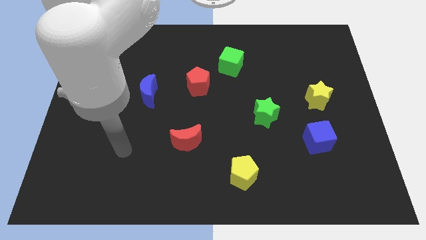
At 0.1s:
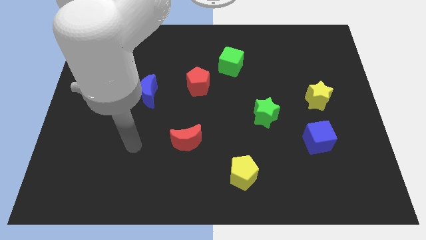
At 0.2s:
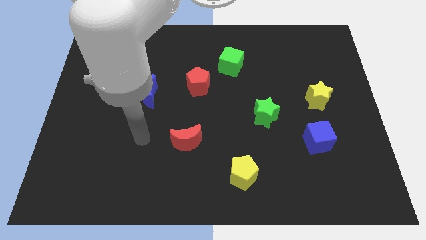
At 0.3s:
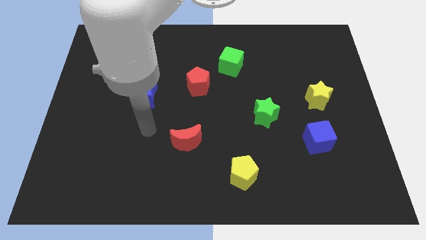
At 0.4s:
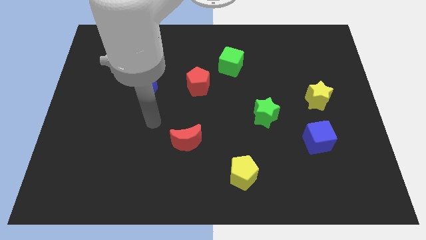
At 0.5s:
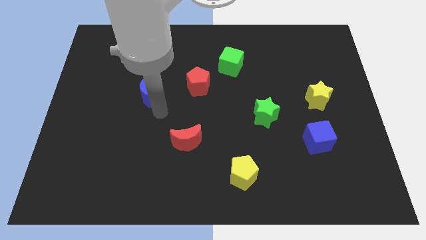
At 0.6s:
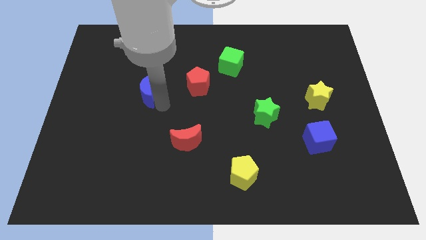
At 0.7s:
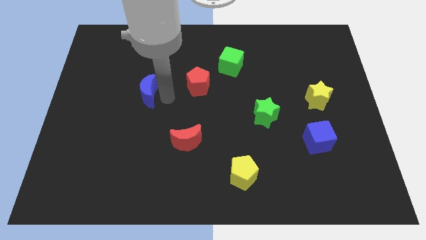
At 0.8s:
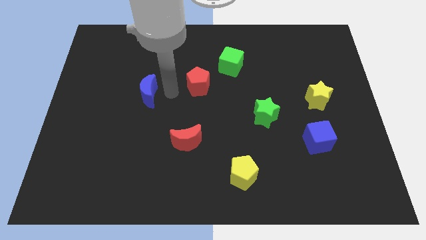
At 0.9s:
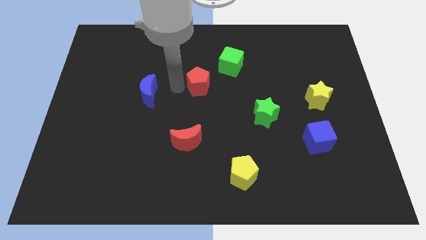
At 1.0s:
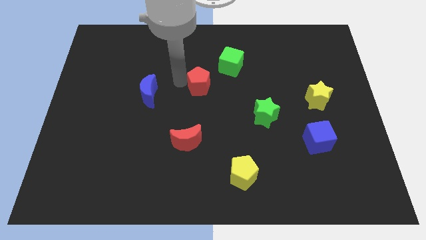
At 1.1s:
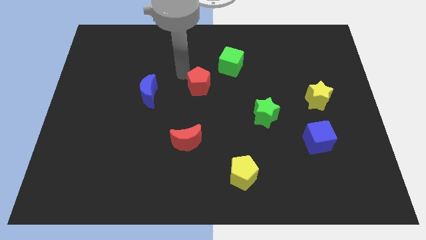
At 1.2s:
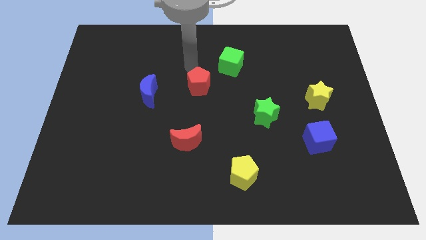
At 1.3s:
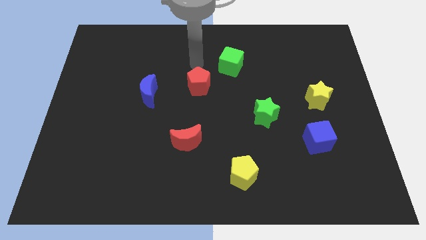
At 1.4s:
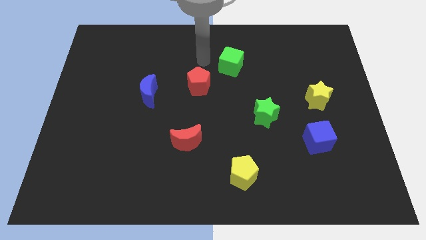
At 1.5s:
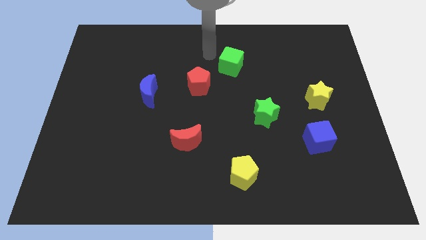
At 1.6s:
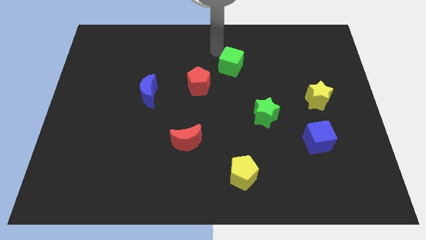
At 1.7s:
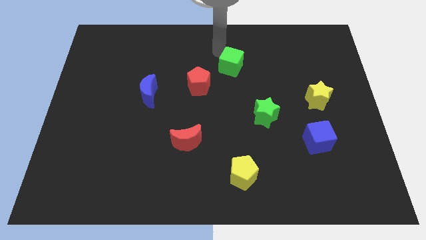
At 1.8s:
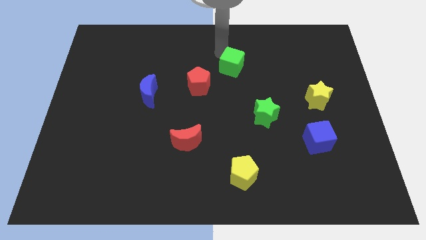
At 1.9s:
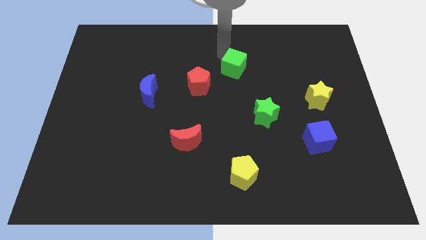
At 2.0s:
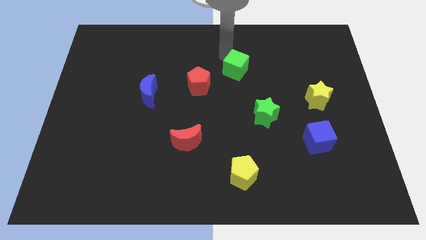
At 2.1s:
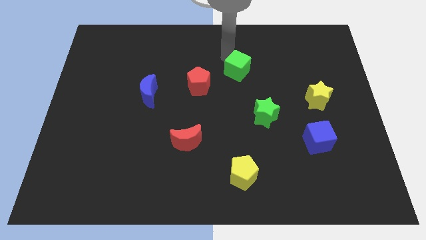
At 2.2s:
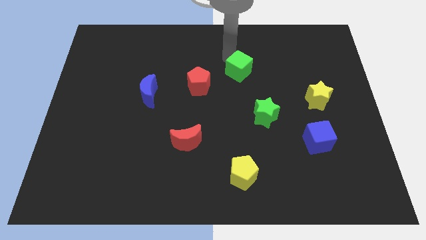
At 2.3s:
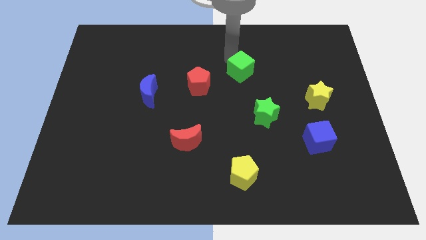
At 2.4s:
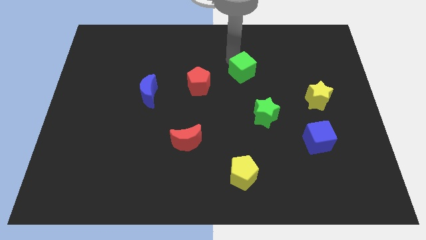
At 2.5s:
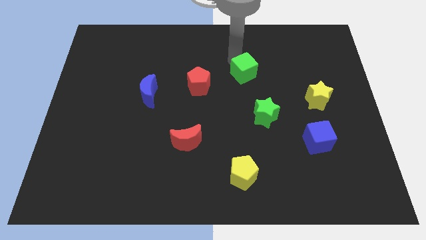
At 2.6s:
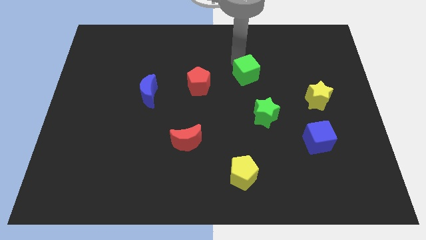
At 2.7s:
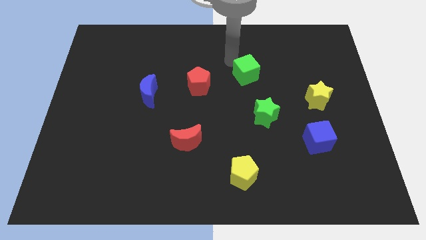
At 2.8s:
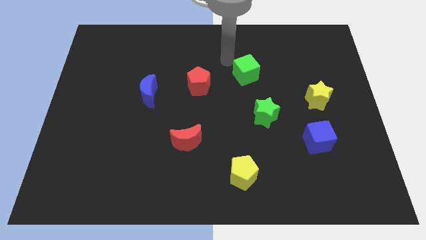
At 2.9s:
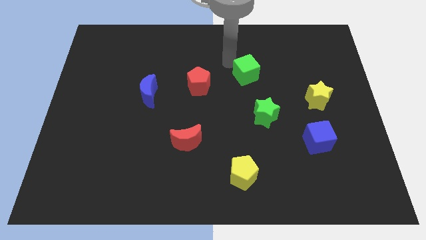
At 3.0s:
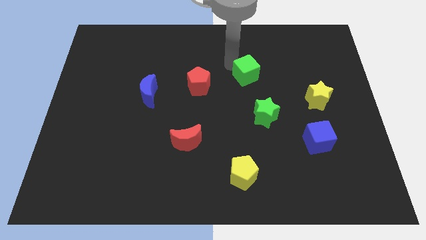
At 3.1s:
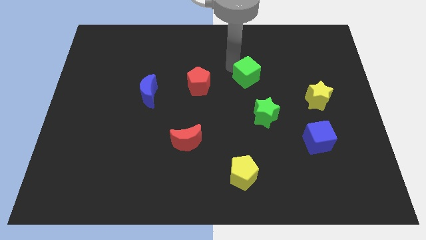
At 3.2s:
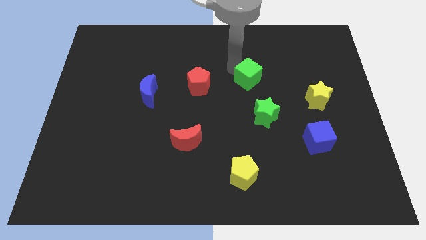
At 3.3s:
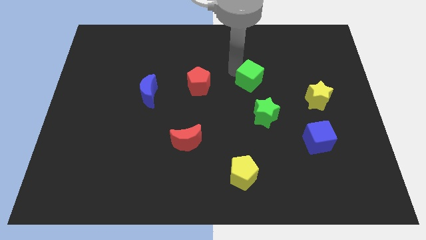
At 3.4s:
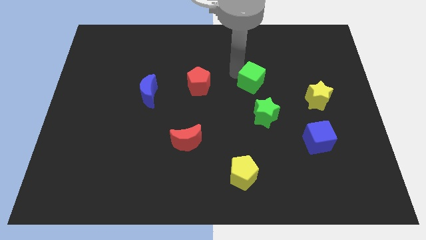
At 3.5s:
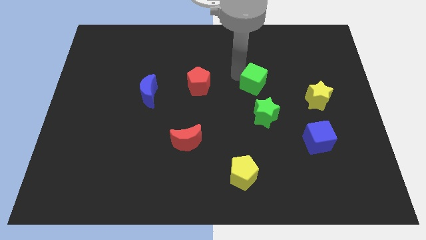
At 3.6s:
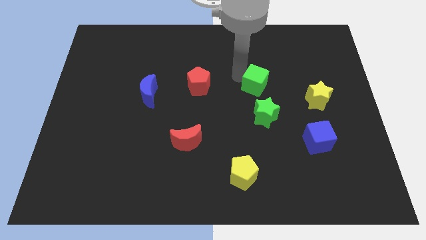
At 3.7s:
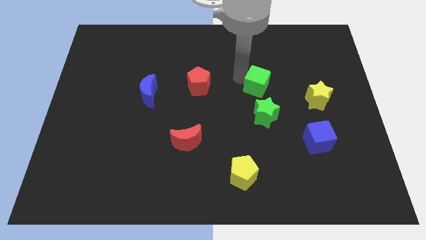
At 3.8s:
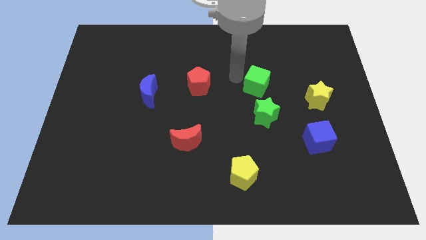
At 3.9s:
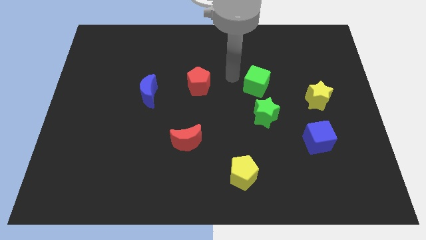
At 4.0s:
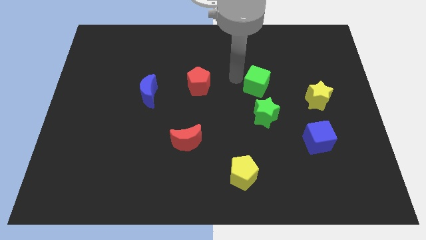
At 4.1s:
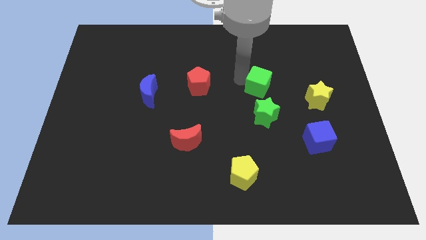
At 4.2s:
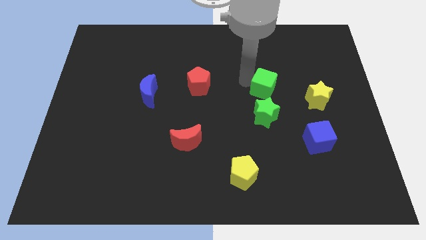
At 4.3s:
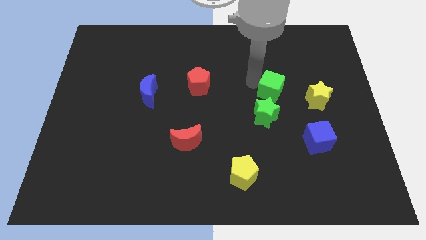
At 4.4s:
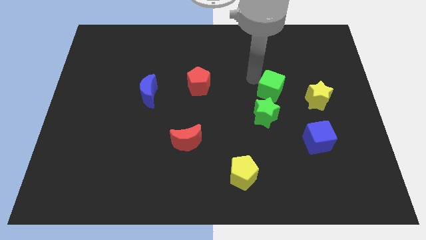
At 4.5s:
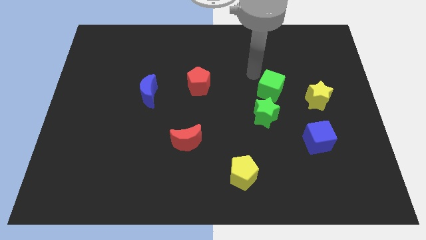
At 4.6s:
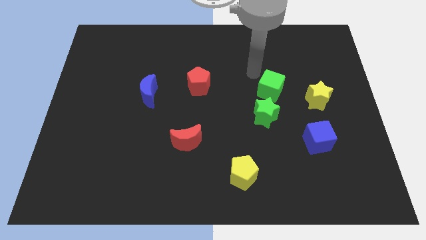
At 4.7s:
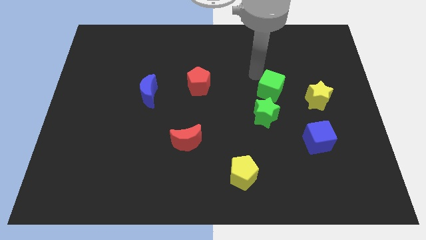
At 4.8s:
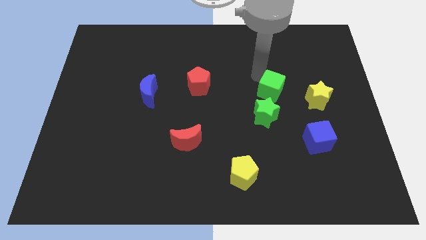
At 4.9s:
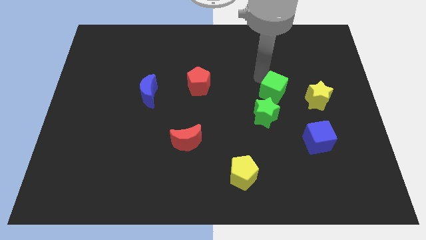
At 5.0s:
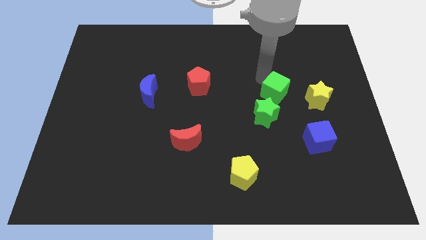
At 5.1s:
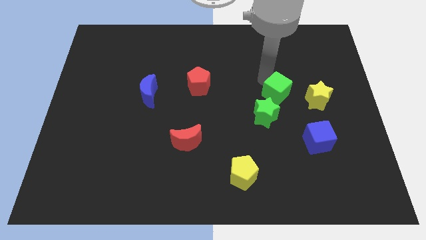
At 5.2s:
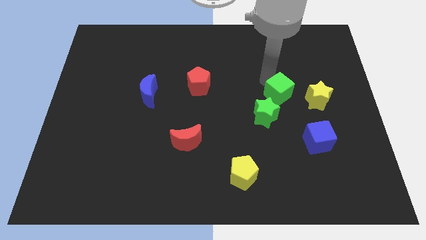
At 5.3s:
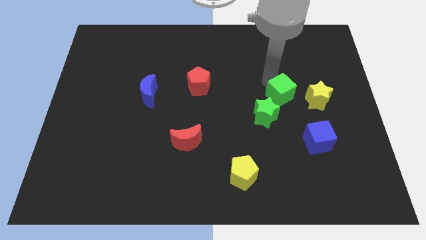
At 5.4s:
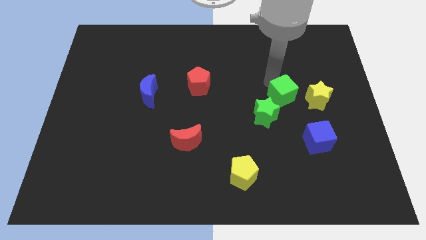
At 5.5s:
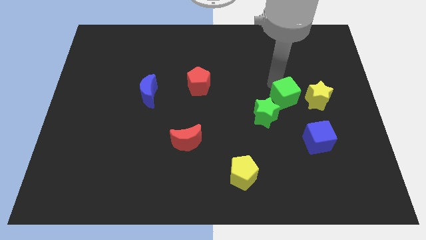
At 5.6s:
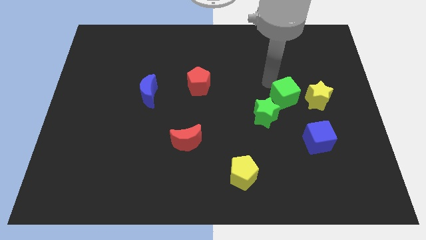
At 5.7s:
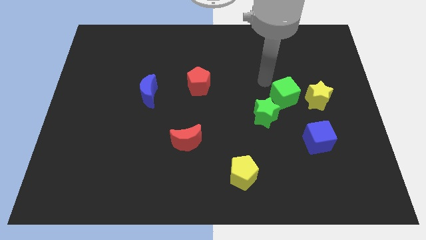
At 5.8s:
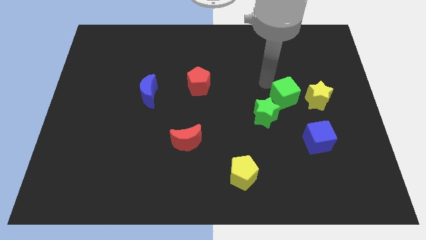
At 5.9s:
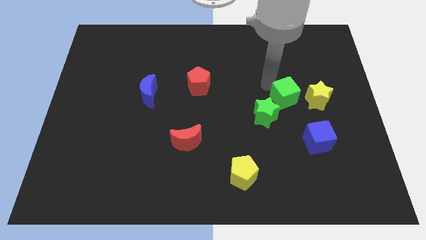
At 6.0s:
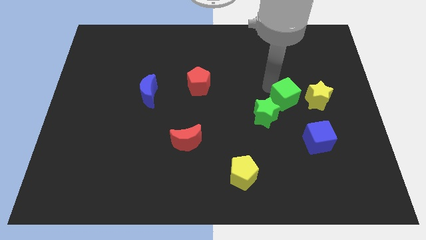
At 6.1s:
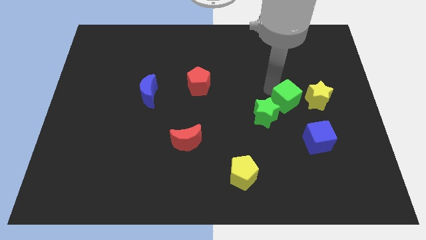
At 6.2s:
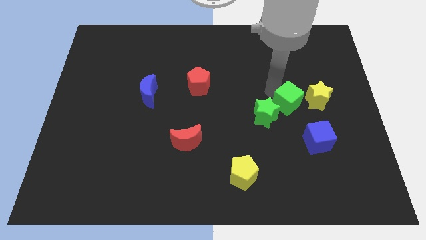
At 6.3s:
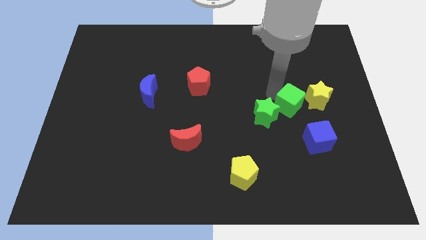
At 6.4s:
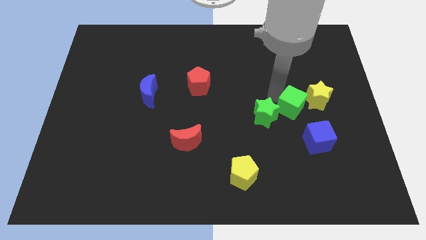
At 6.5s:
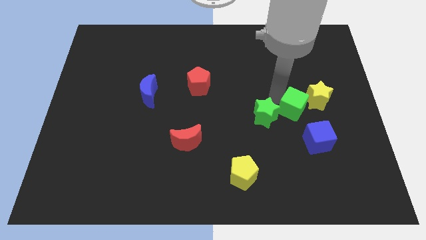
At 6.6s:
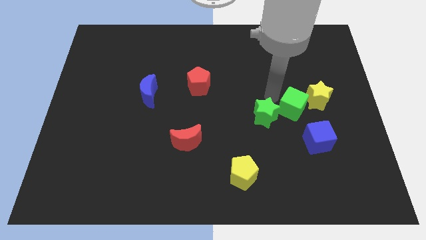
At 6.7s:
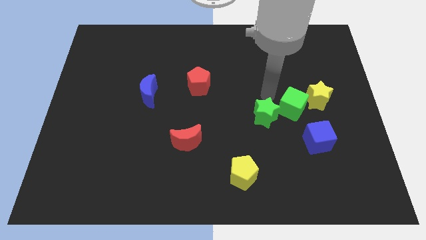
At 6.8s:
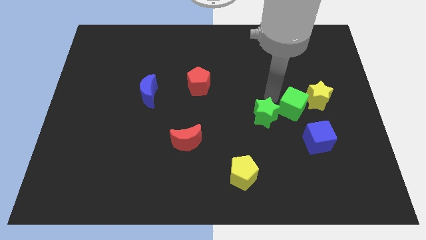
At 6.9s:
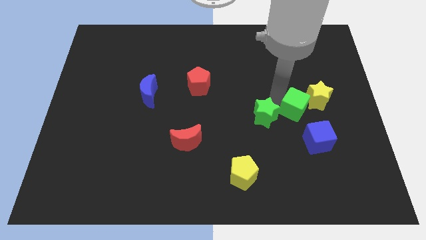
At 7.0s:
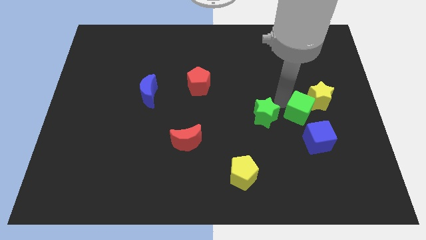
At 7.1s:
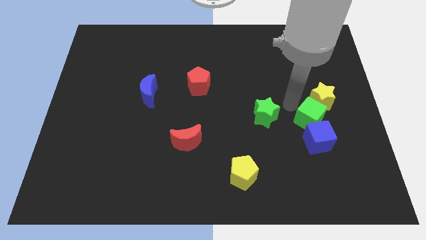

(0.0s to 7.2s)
move the green cube close to the blue cube

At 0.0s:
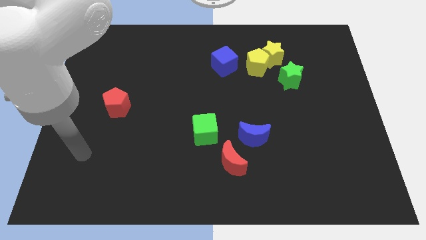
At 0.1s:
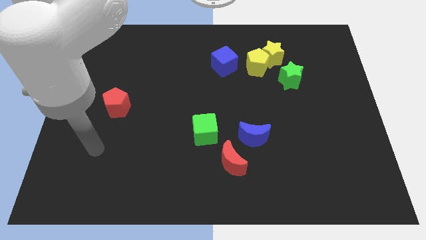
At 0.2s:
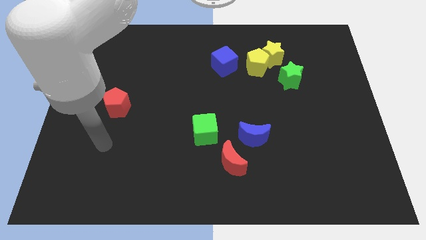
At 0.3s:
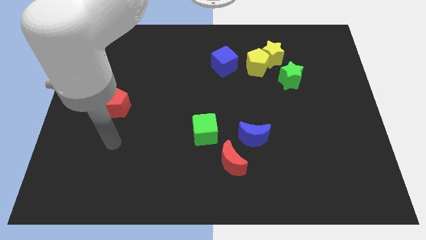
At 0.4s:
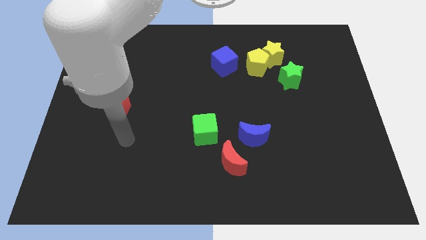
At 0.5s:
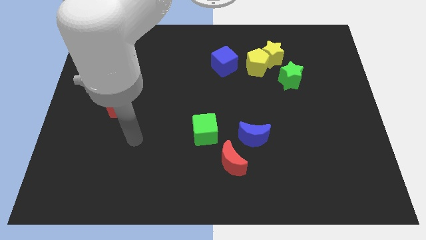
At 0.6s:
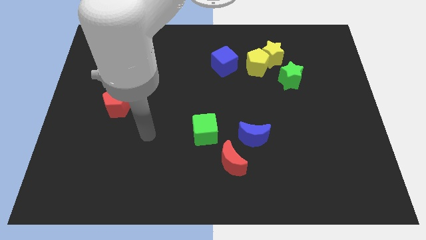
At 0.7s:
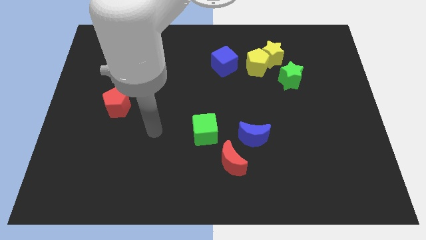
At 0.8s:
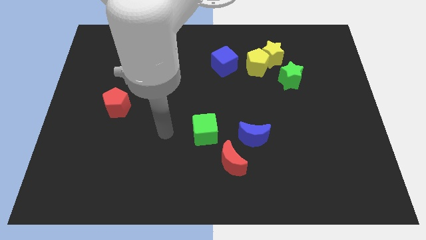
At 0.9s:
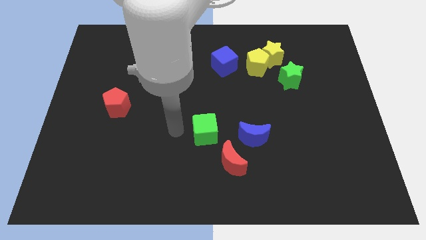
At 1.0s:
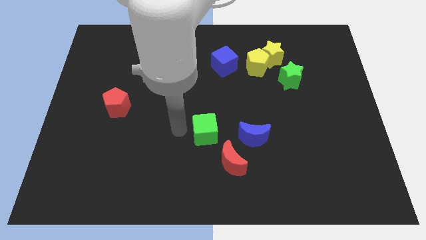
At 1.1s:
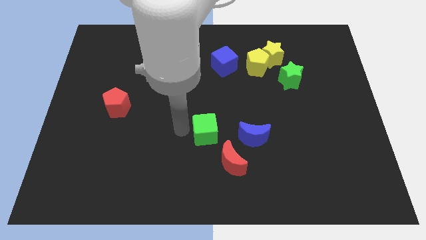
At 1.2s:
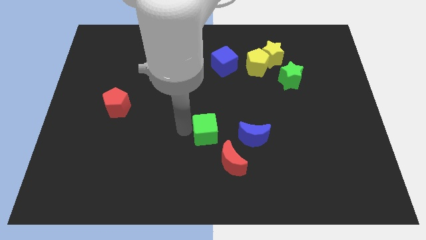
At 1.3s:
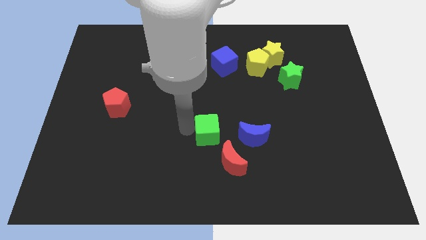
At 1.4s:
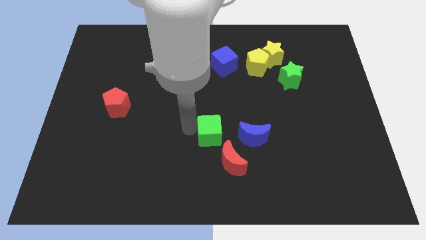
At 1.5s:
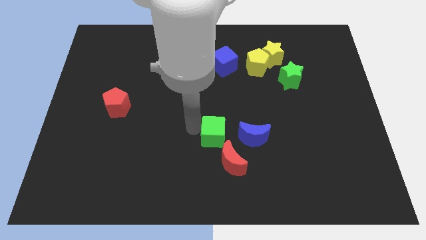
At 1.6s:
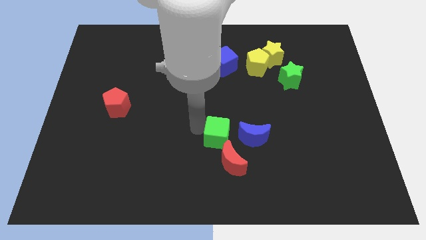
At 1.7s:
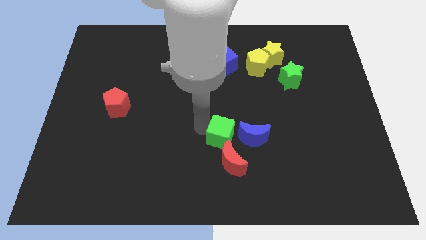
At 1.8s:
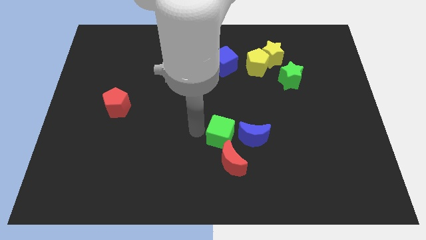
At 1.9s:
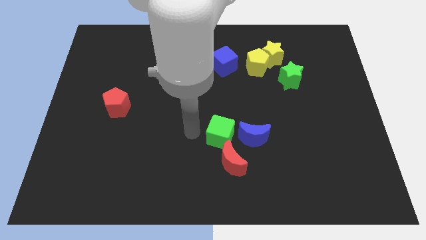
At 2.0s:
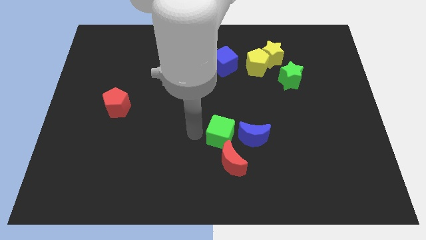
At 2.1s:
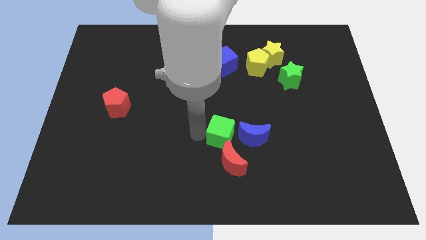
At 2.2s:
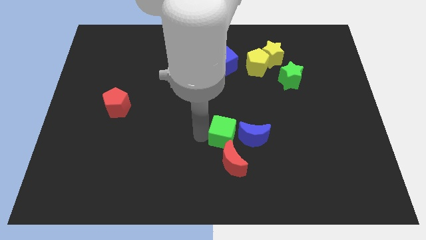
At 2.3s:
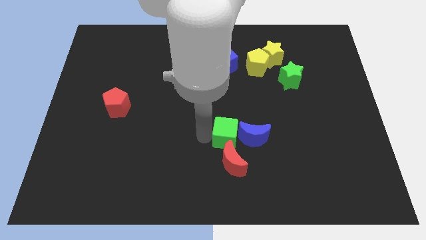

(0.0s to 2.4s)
put the green cube close to the blue moon
